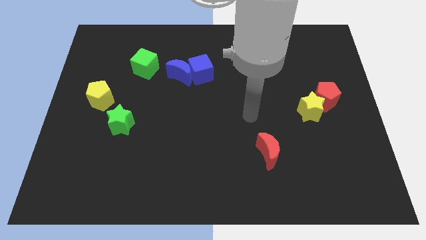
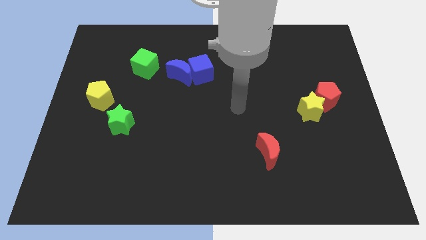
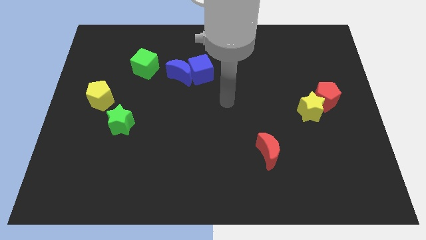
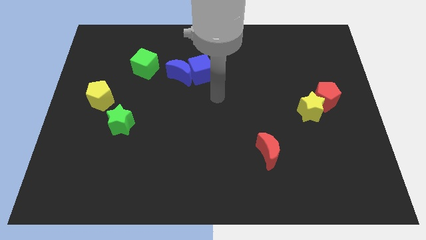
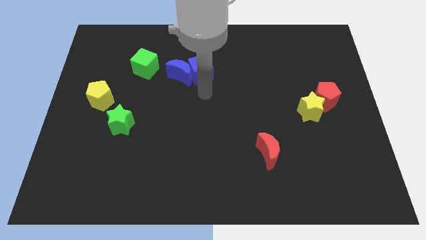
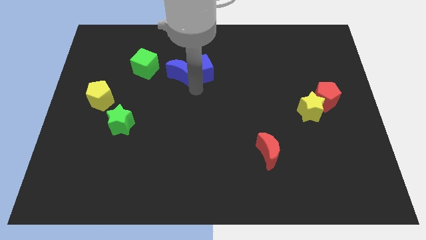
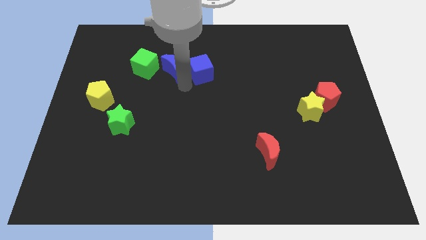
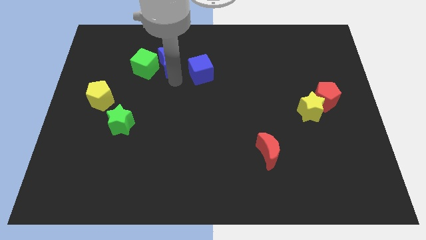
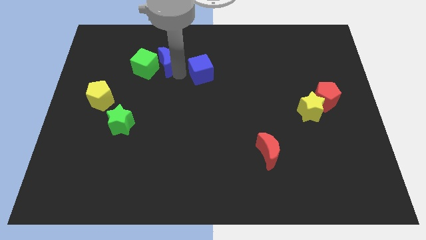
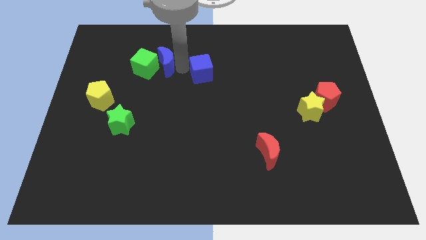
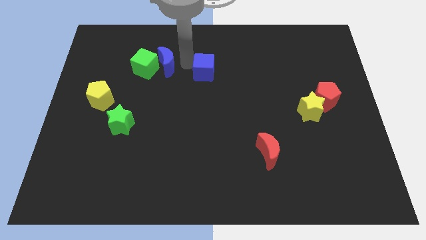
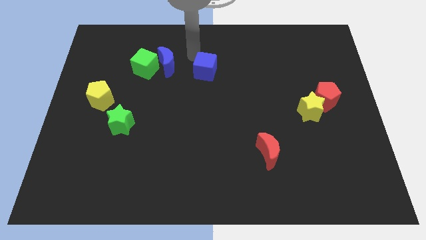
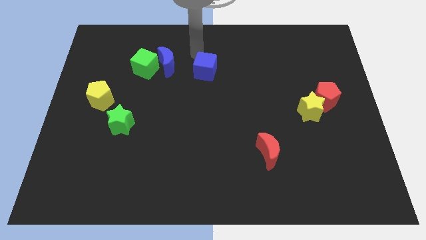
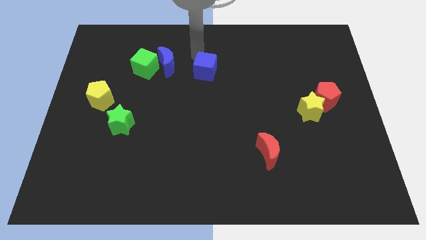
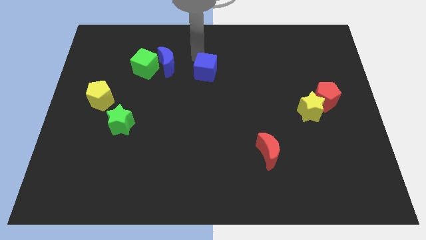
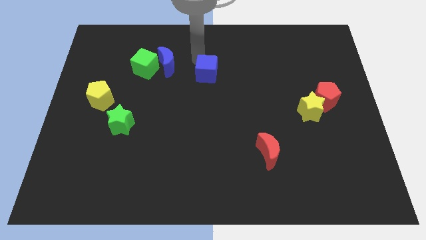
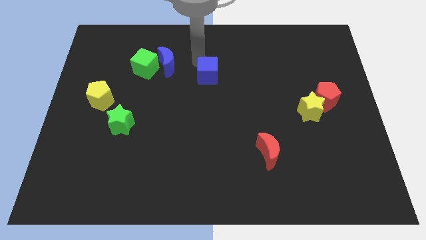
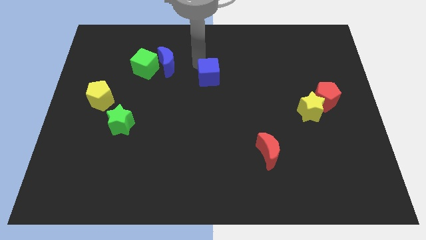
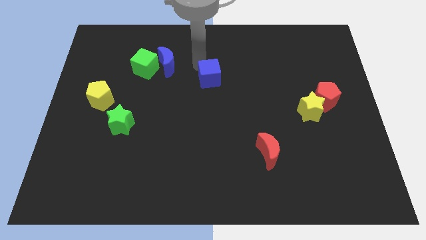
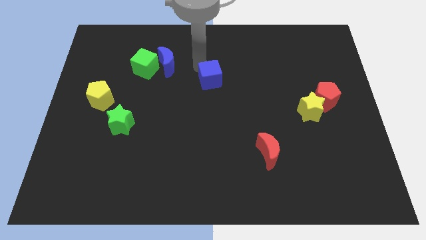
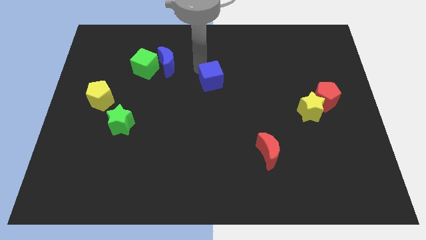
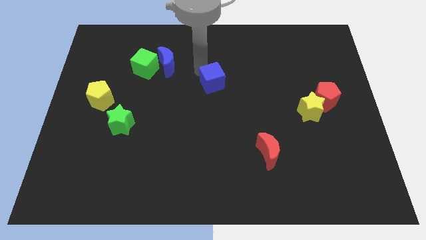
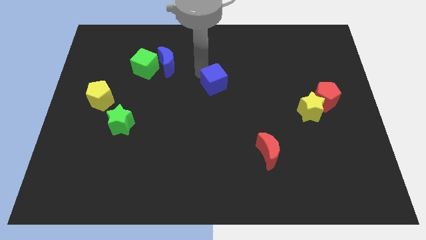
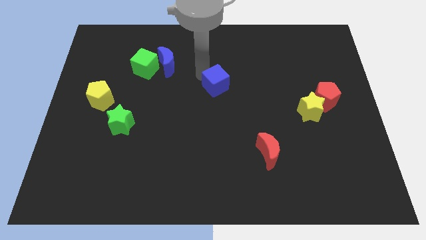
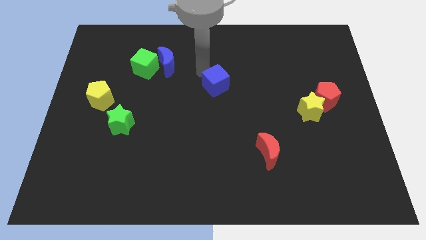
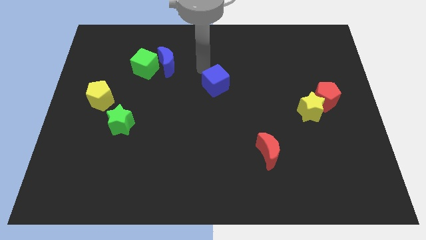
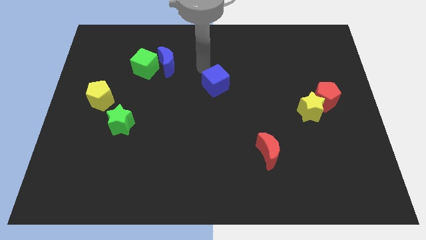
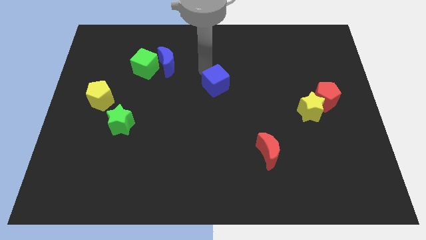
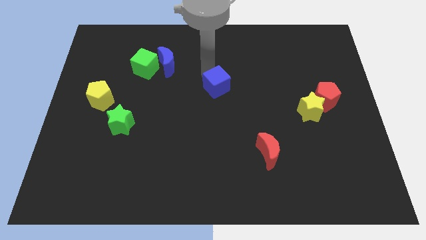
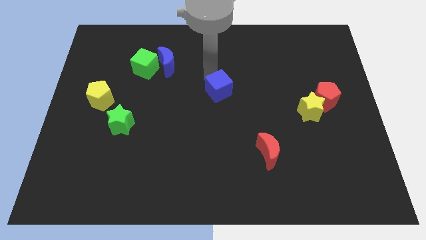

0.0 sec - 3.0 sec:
slide the blue cube down and then to the right slightly

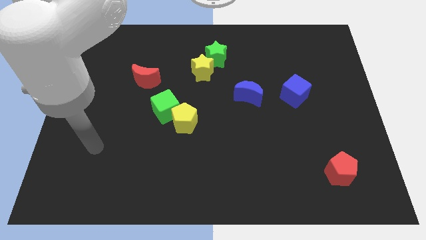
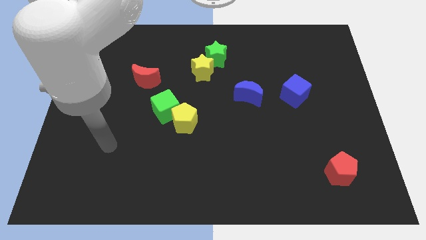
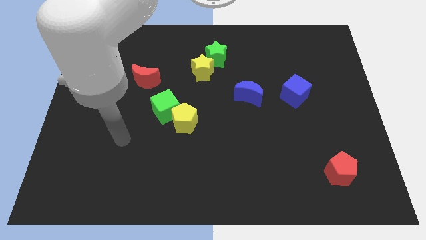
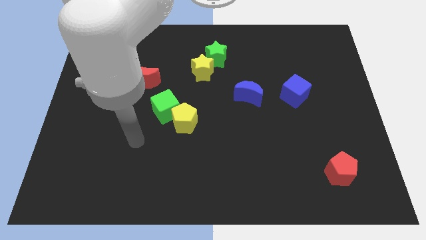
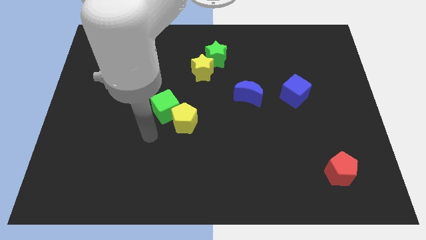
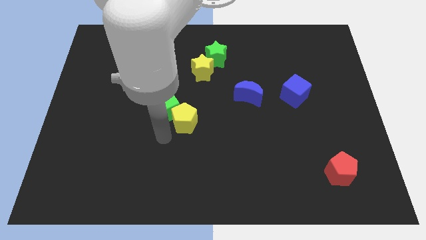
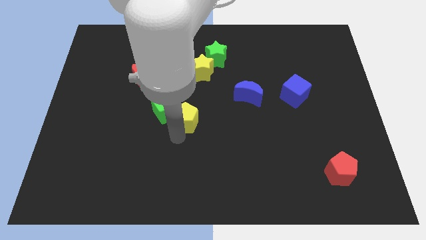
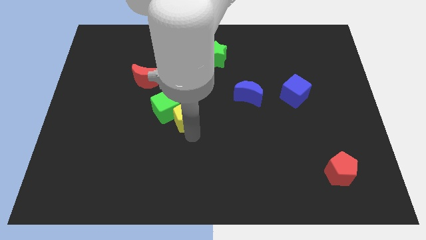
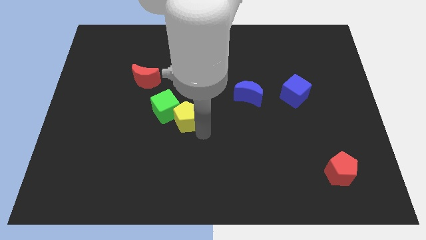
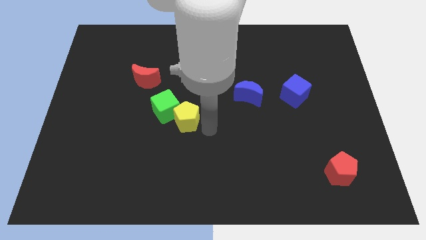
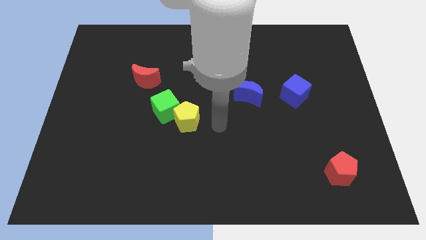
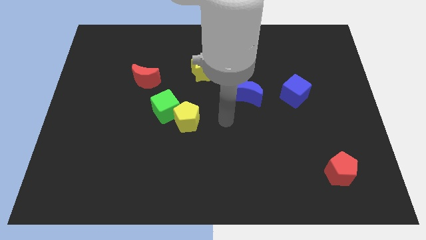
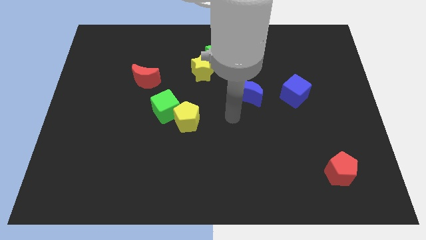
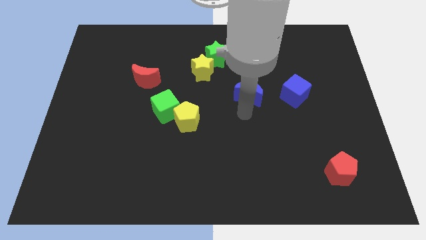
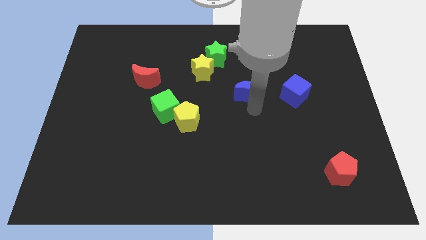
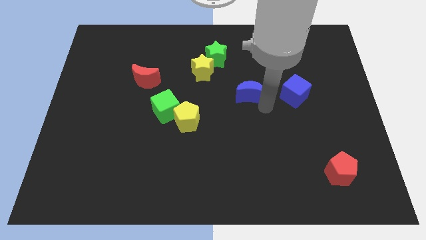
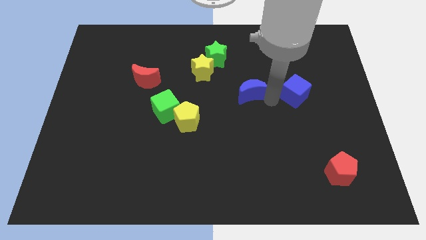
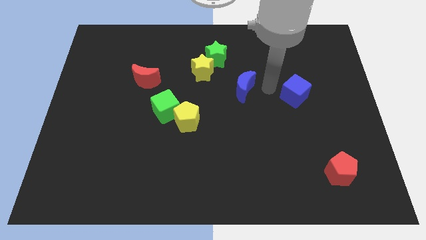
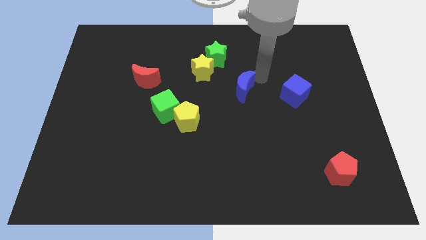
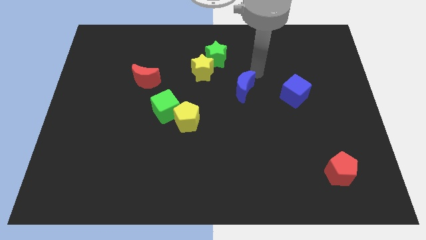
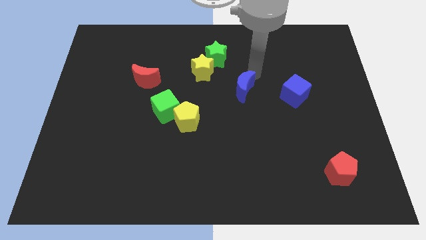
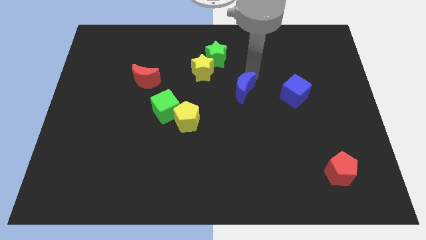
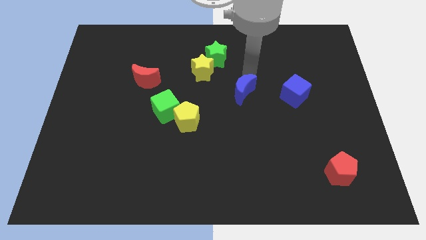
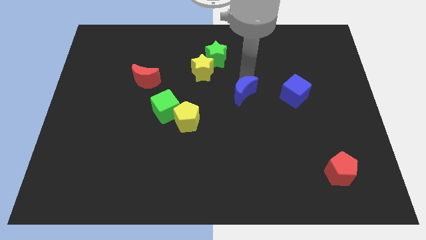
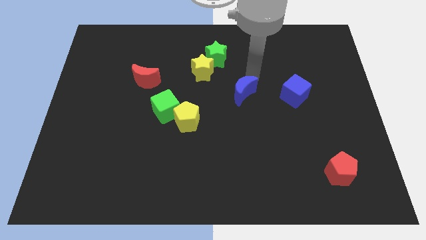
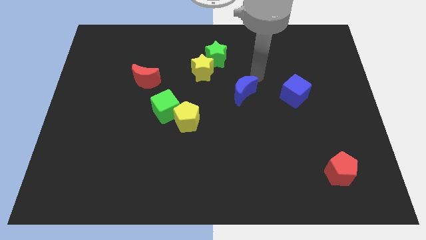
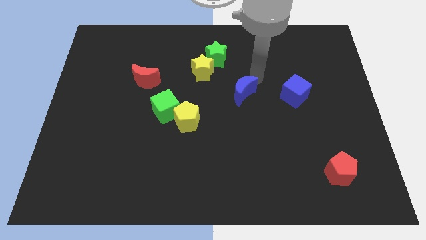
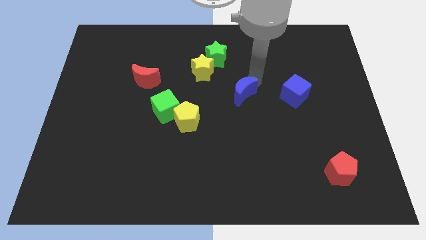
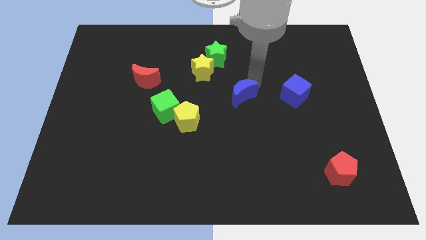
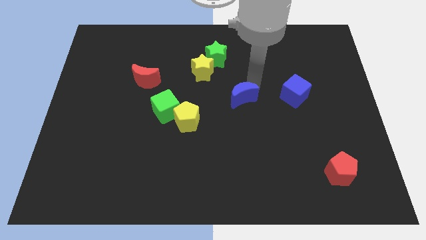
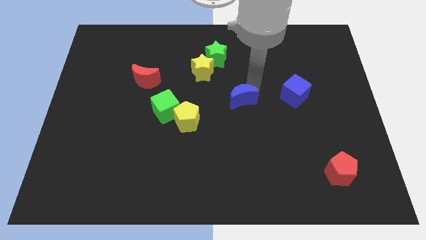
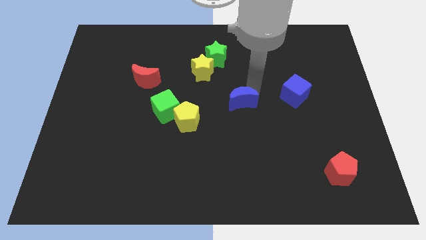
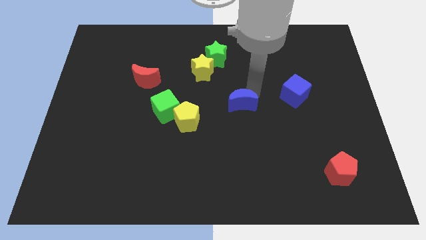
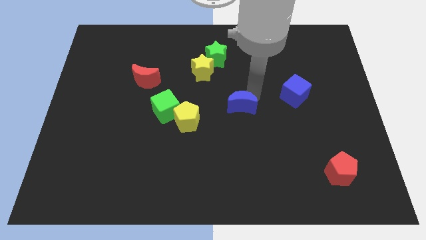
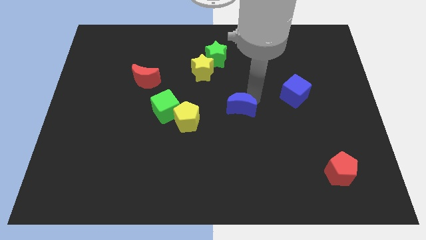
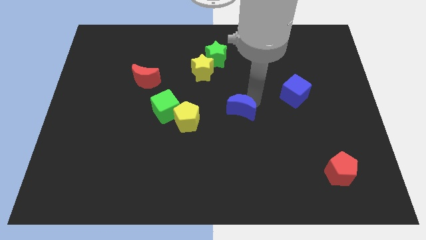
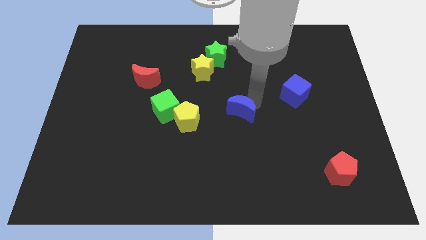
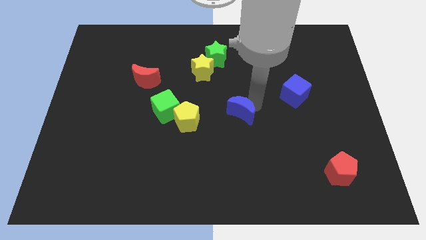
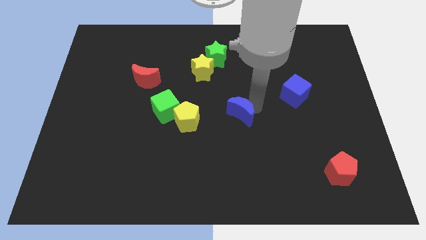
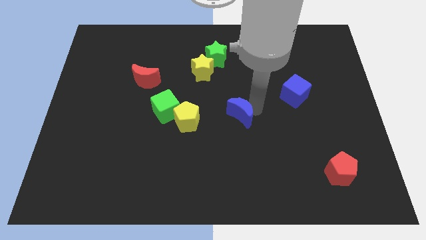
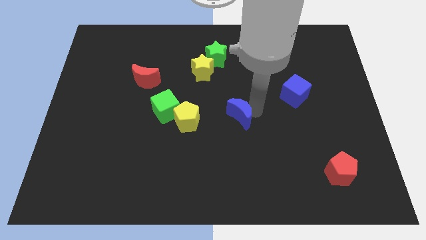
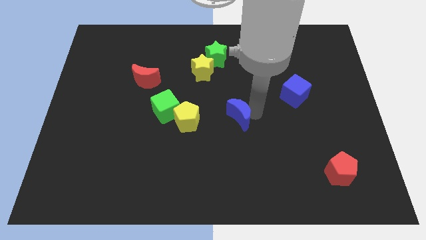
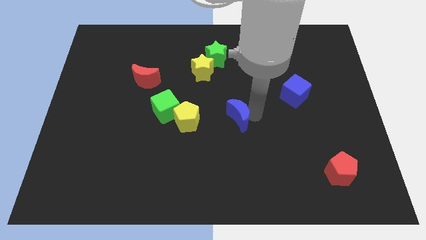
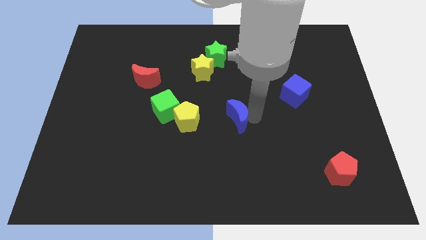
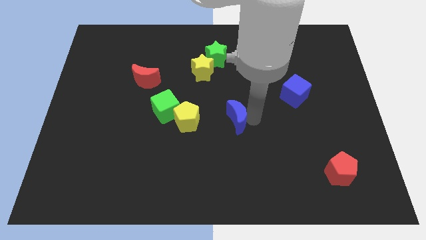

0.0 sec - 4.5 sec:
slide the blue moon down and left diagonally somewhat

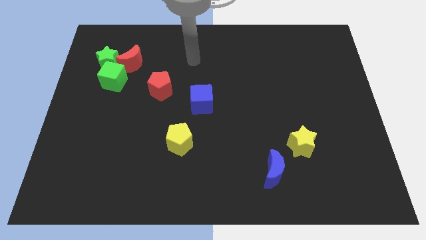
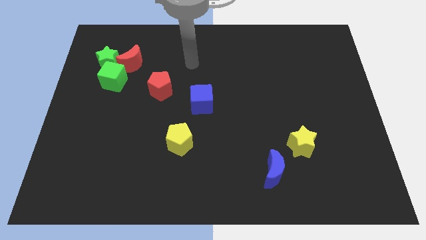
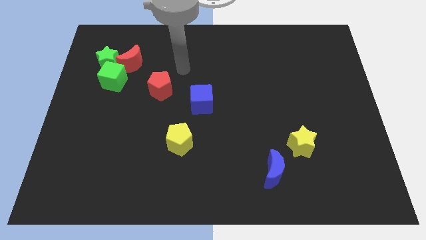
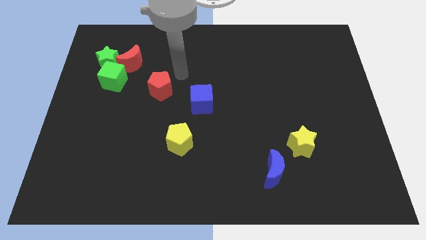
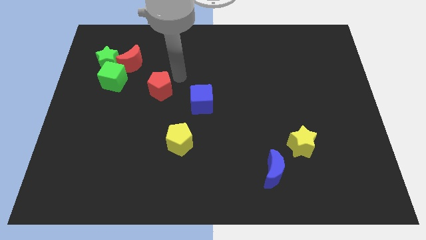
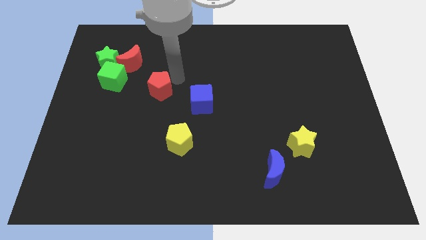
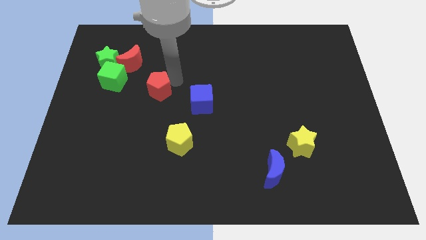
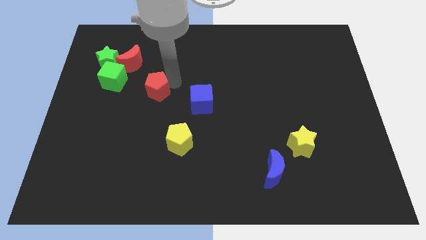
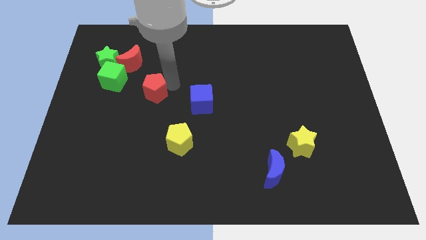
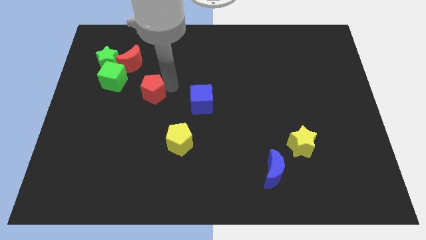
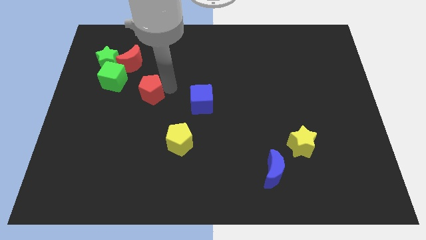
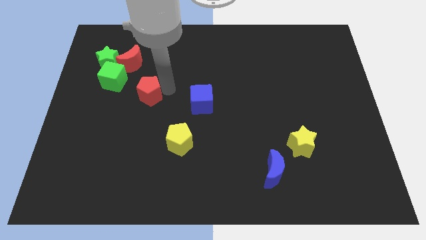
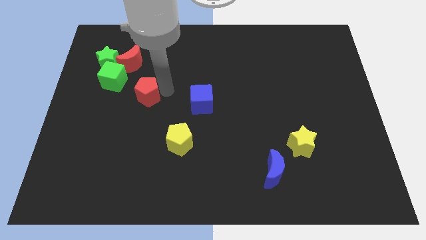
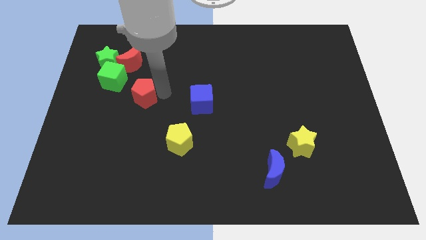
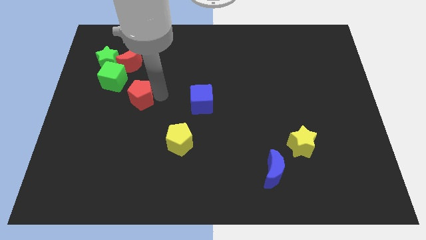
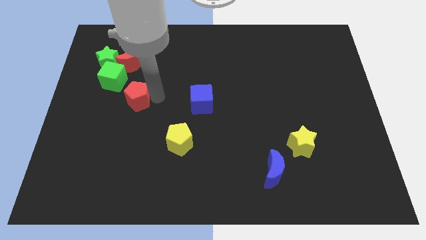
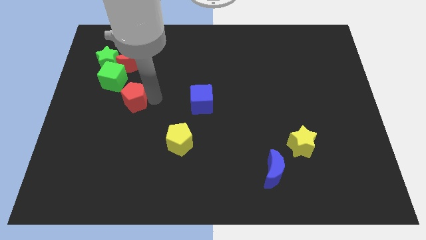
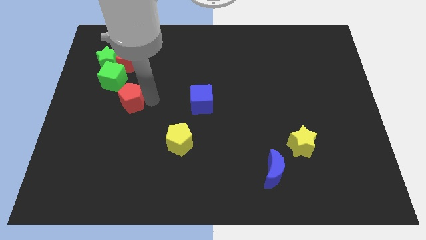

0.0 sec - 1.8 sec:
push the red pentagon a little diagonally down and to the left
